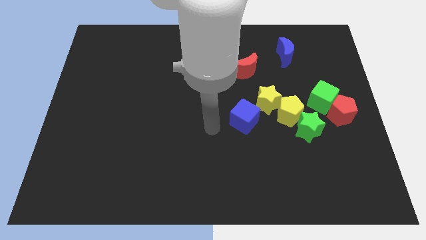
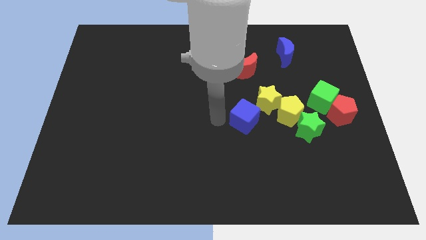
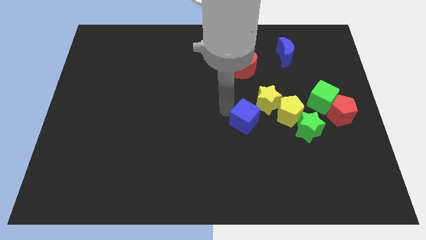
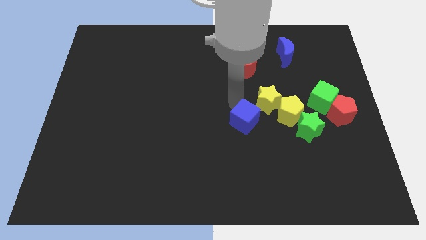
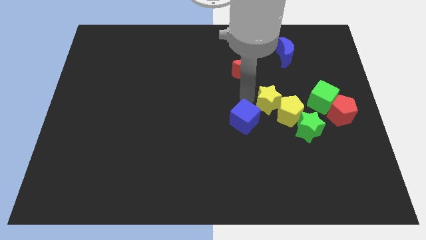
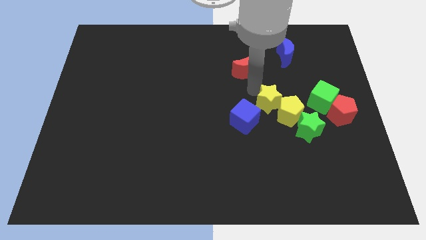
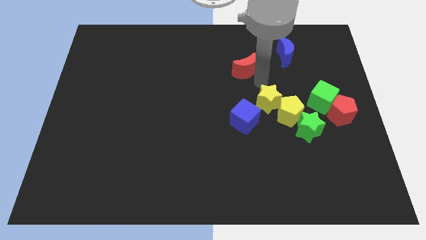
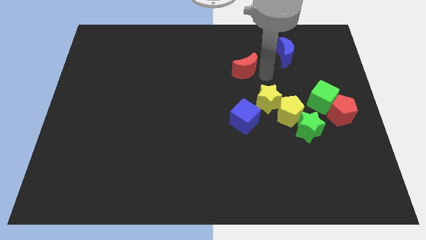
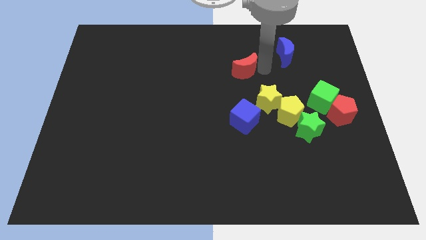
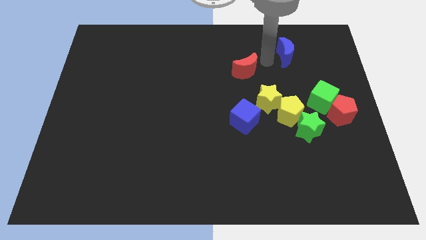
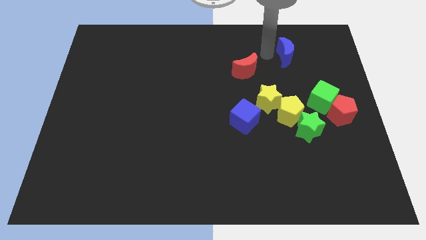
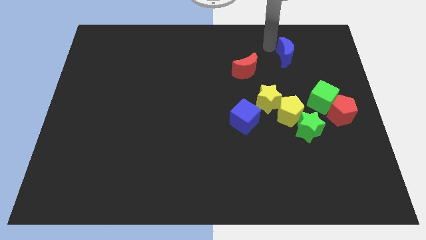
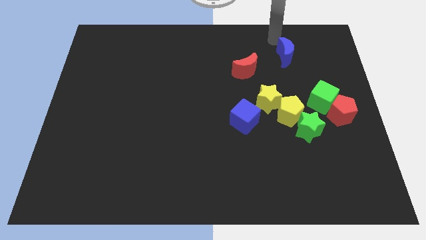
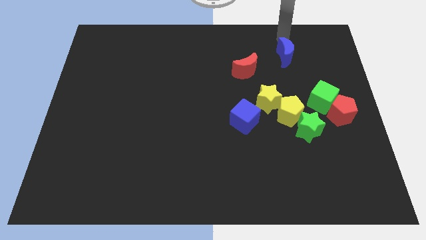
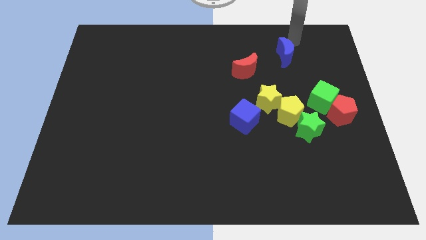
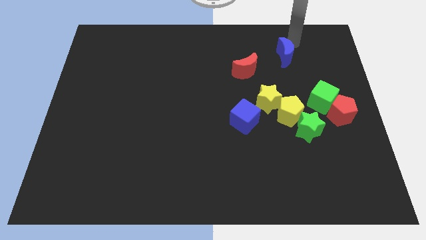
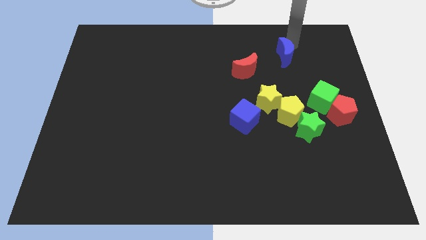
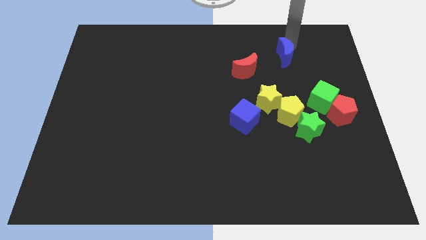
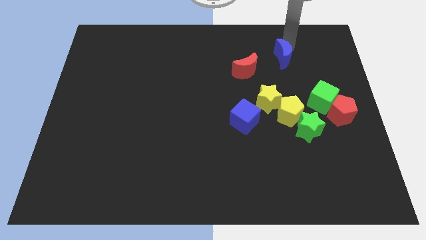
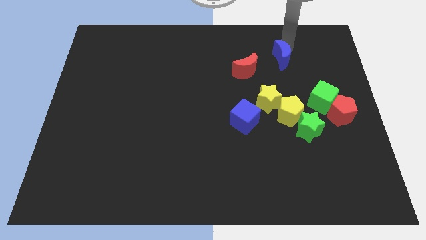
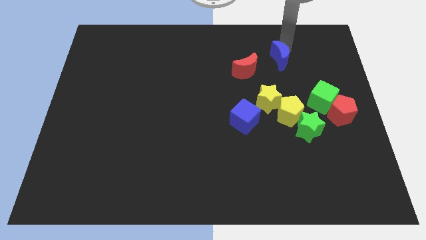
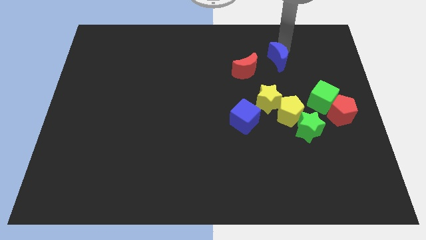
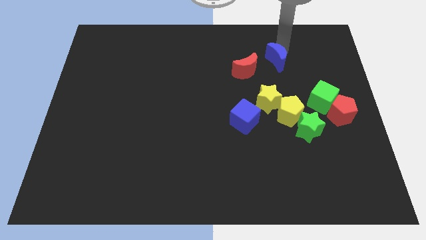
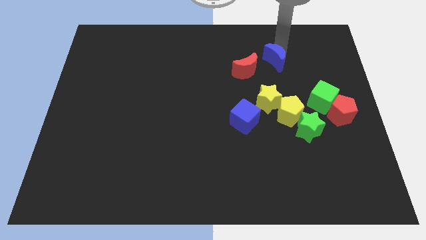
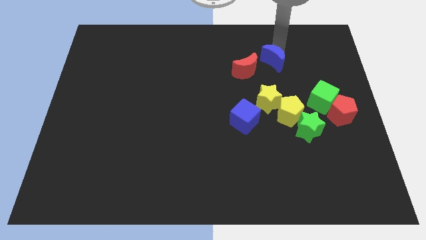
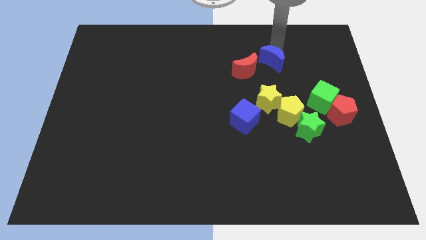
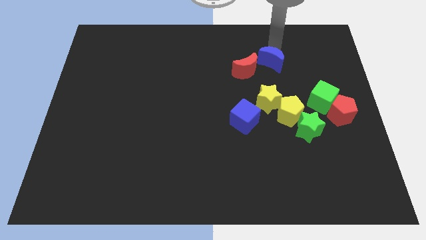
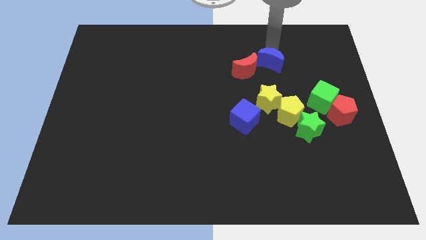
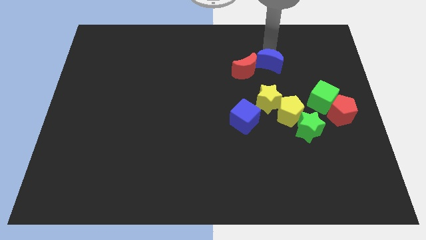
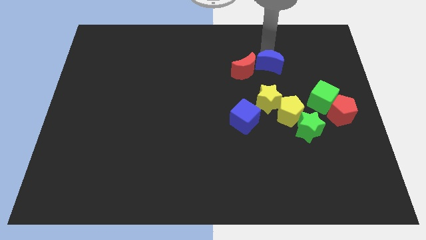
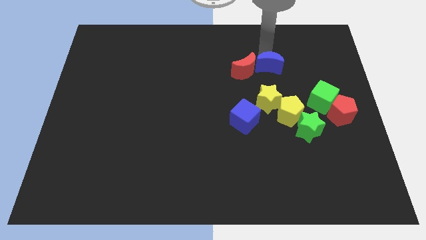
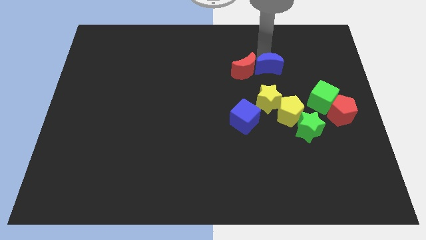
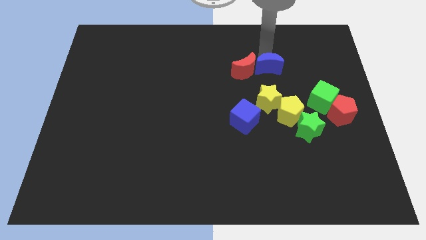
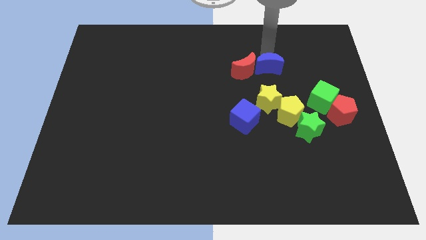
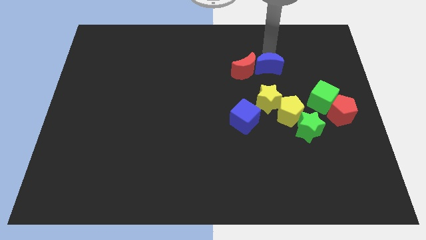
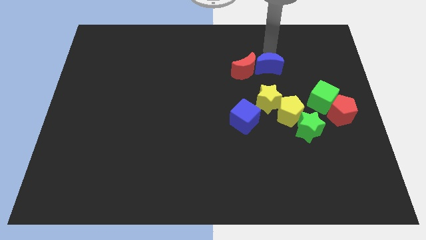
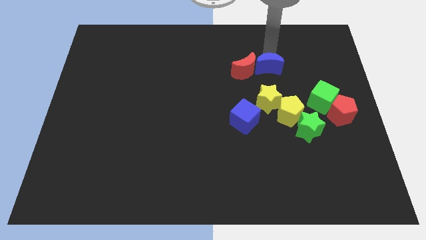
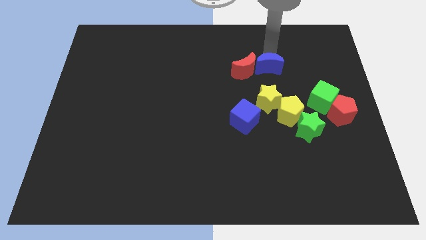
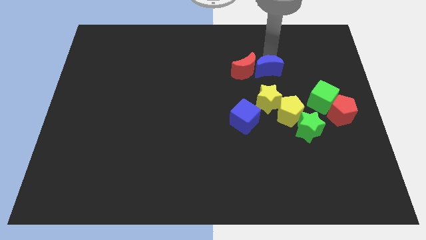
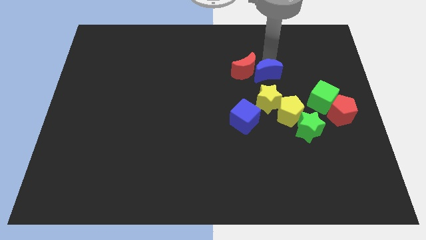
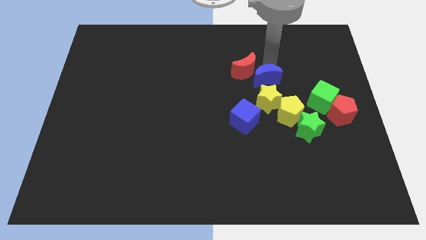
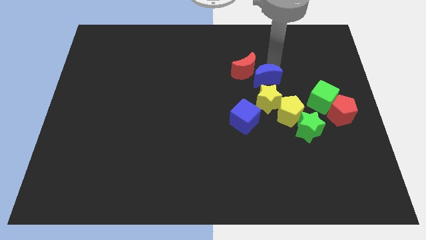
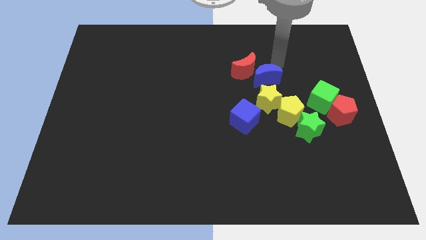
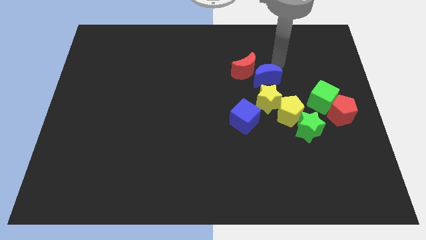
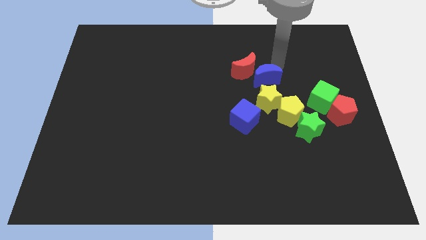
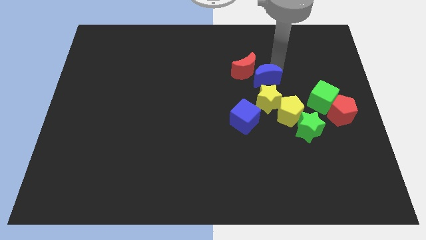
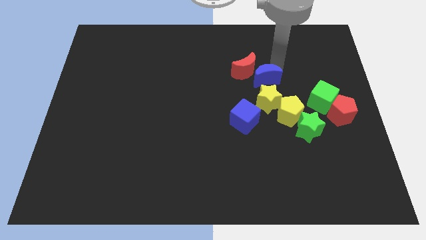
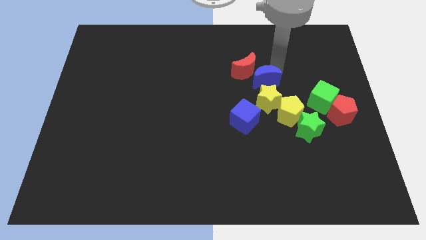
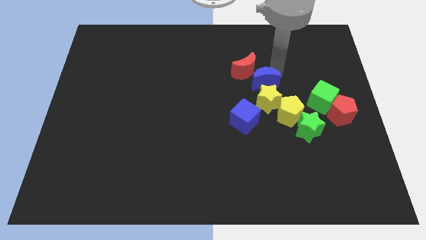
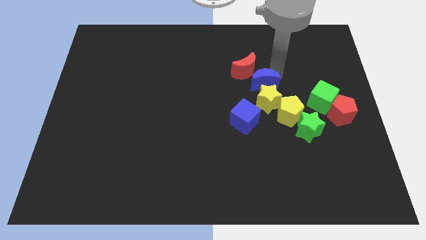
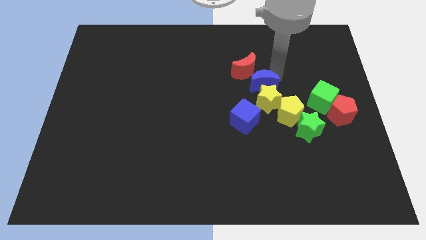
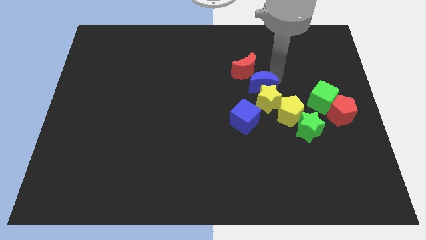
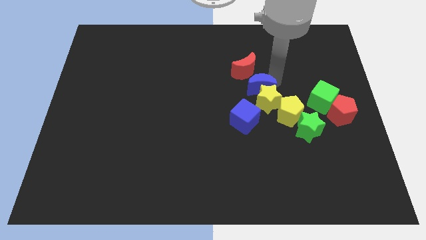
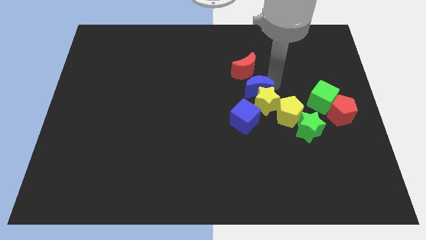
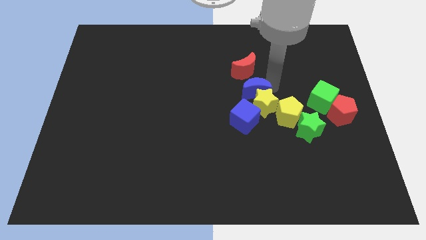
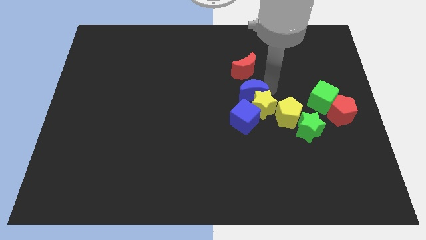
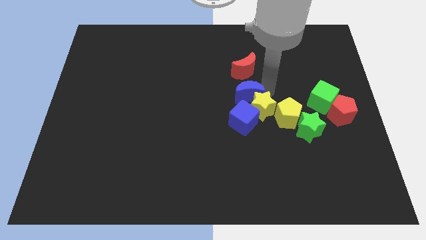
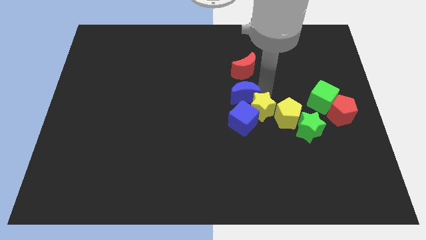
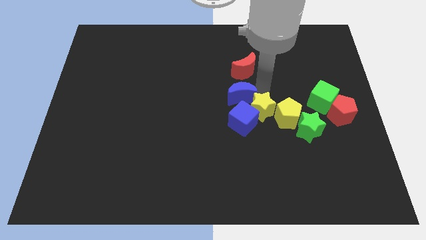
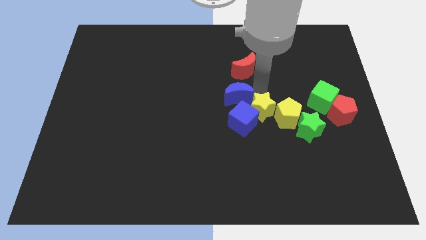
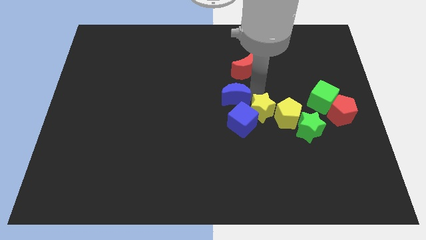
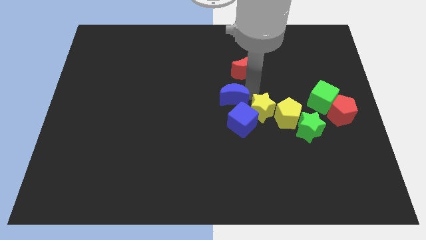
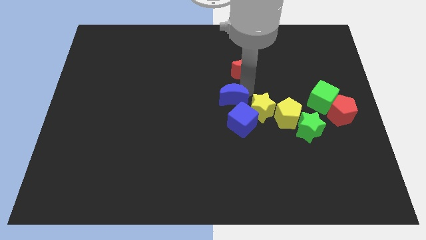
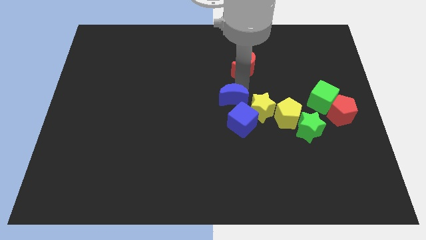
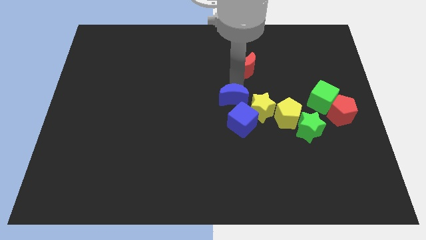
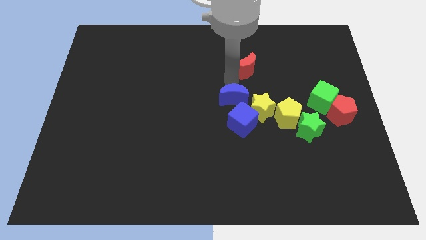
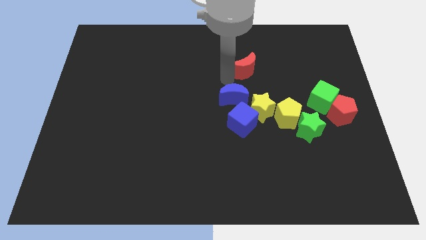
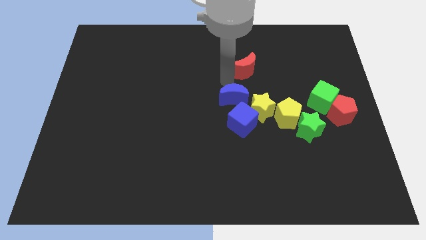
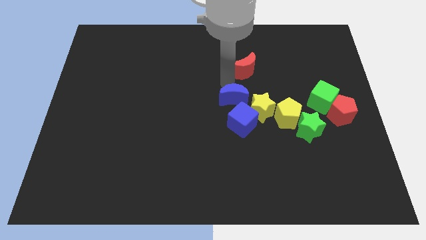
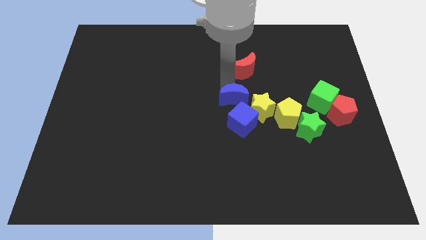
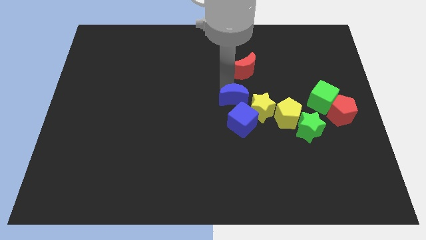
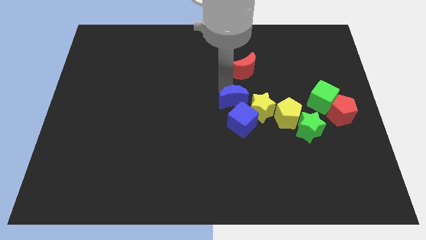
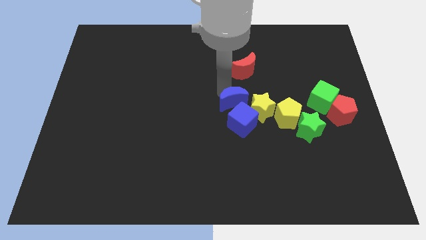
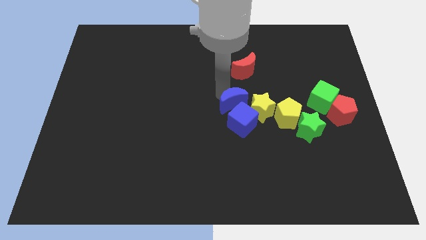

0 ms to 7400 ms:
put the blue moon towards the blue cube

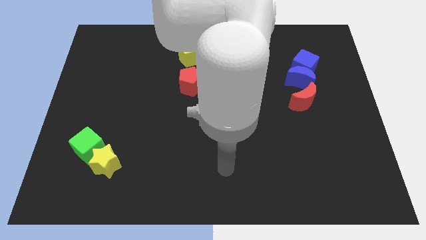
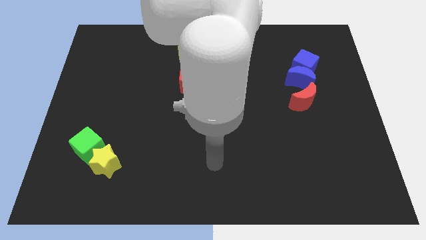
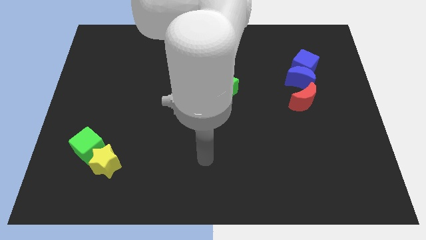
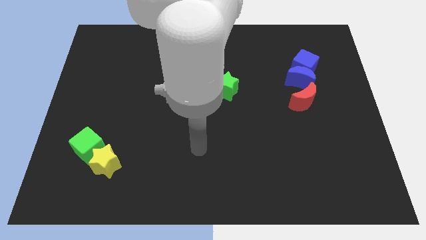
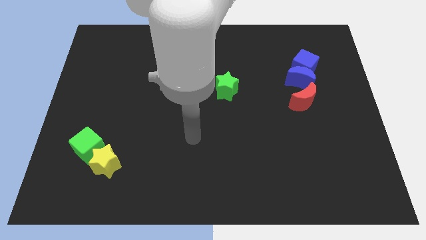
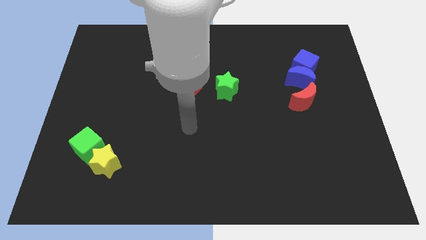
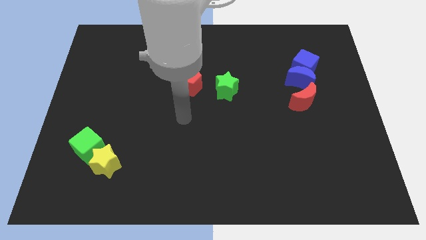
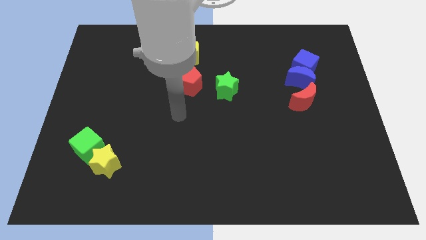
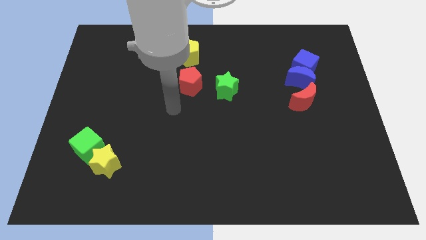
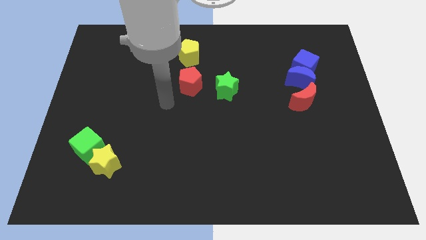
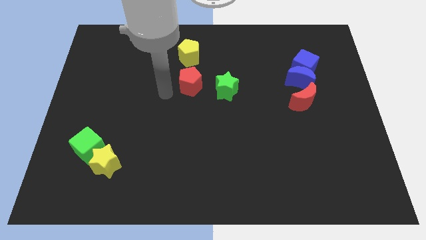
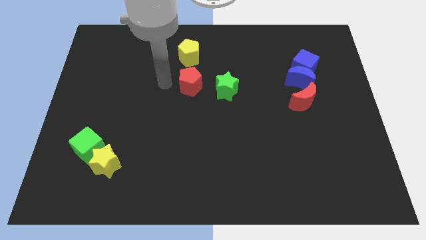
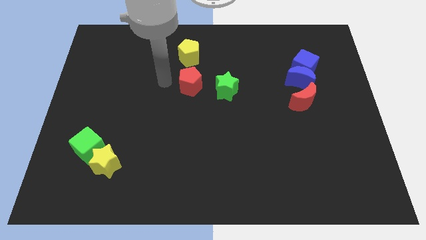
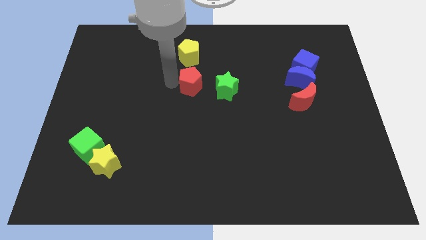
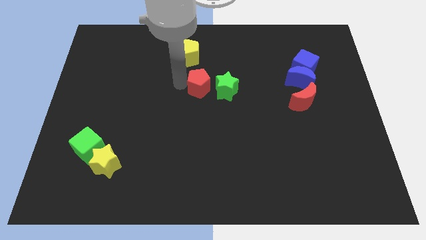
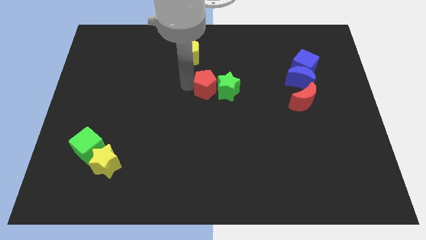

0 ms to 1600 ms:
move the red pentagon towards the green star
